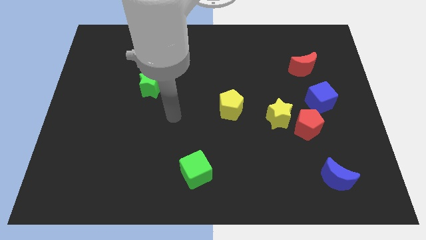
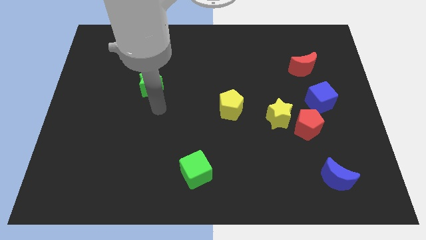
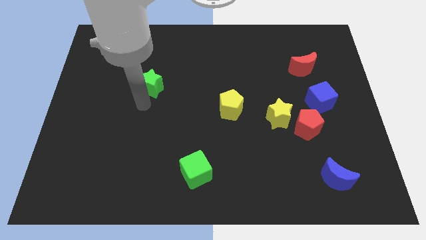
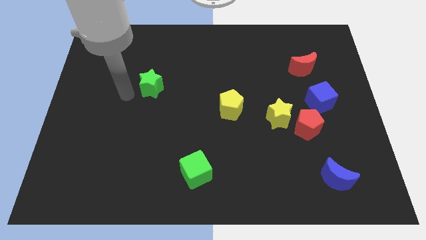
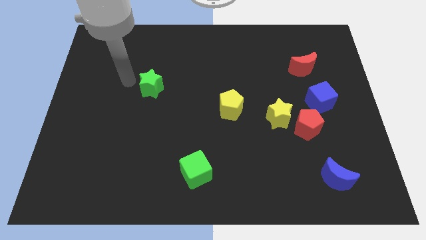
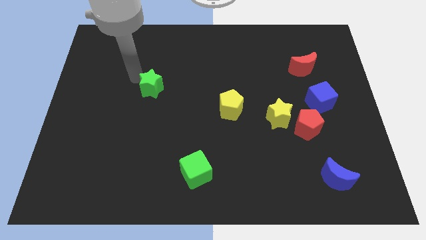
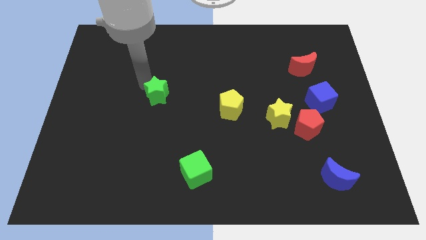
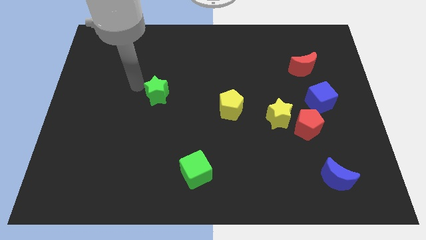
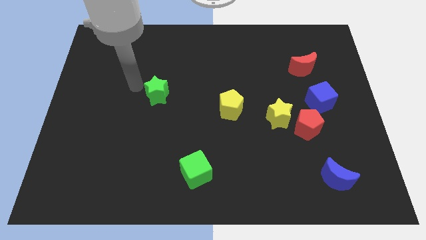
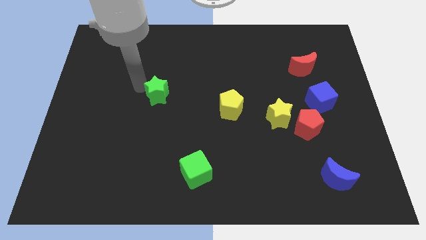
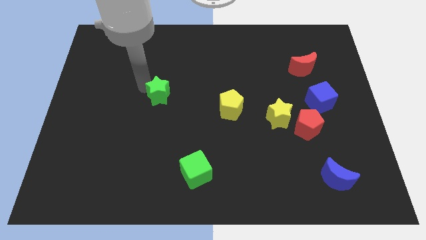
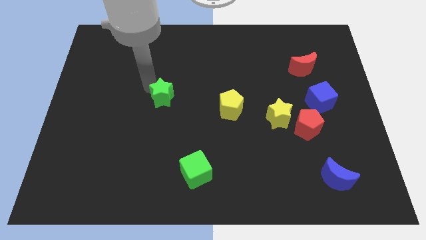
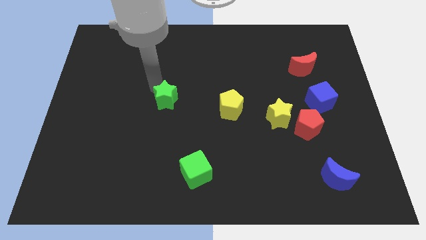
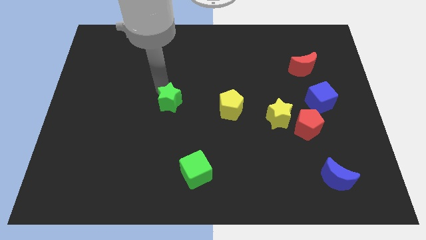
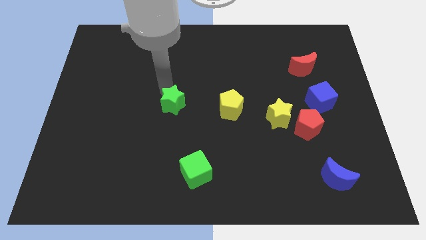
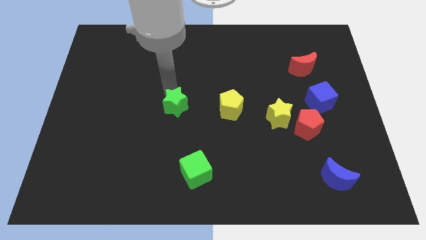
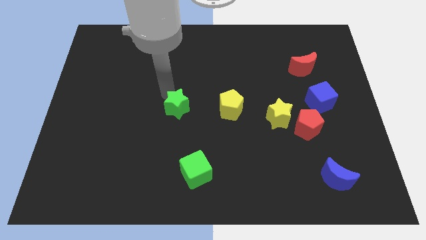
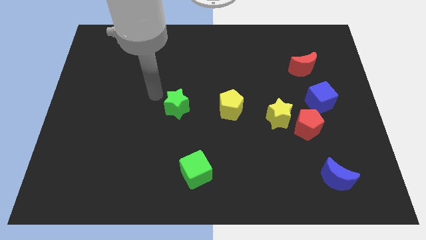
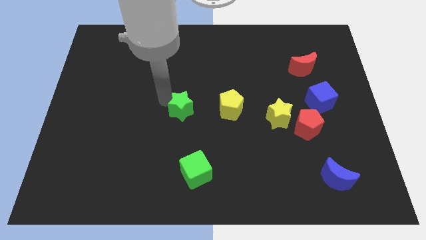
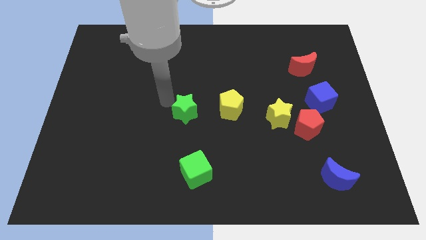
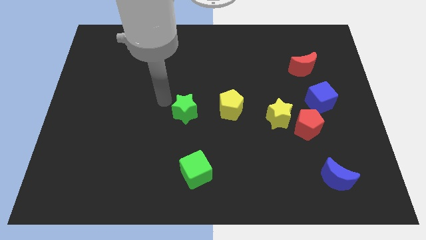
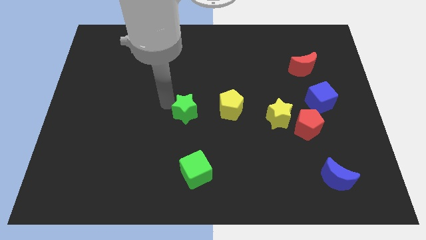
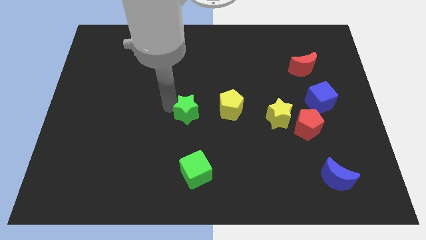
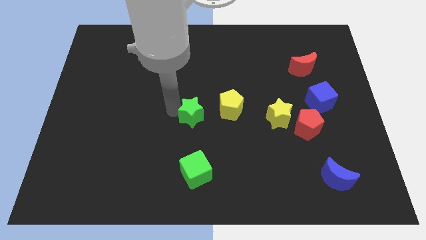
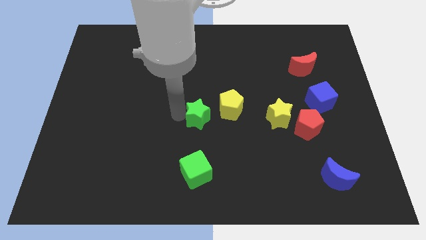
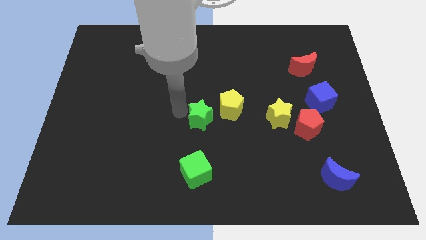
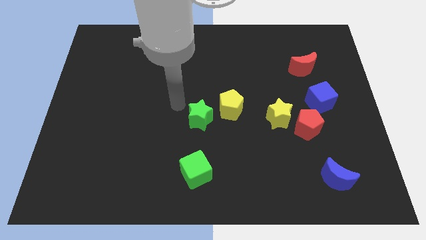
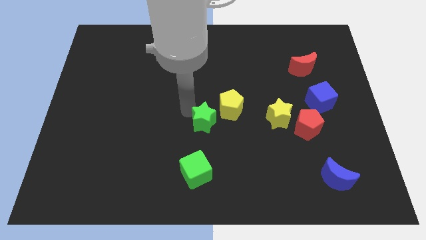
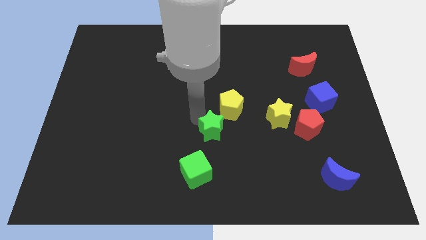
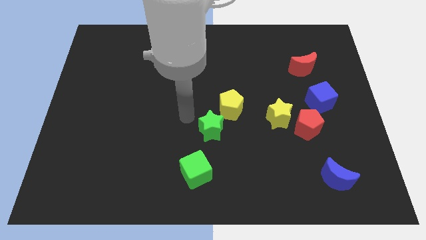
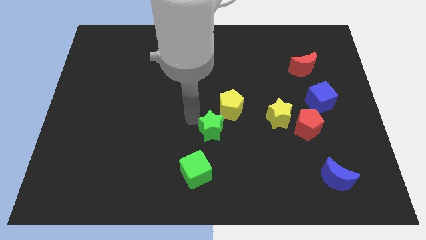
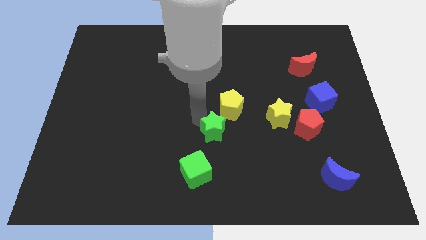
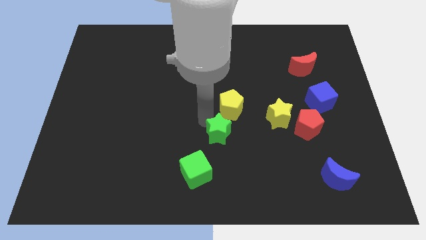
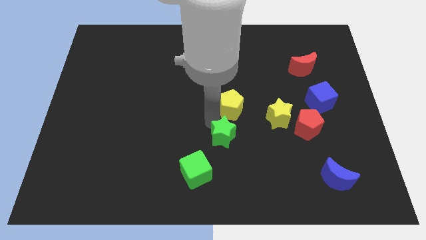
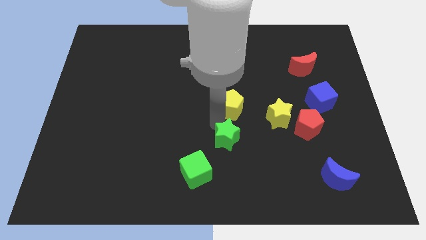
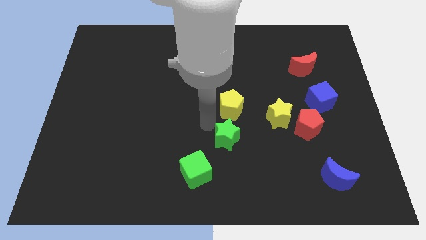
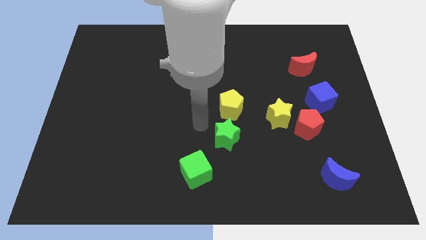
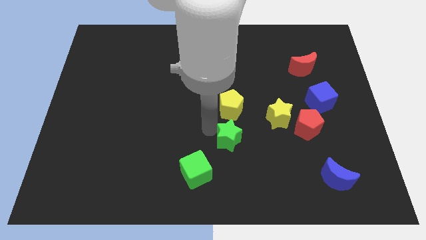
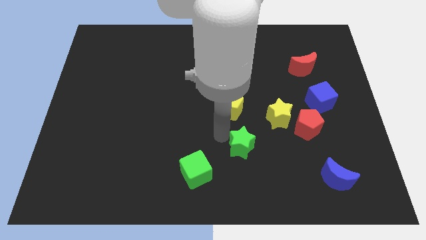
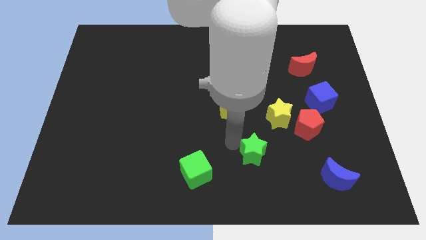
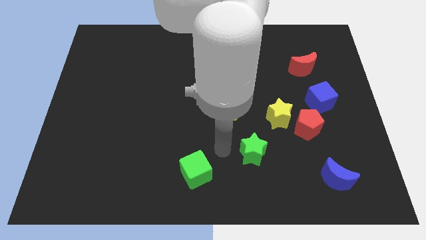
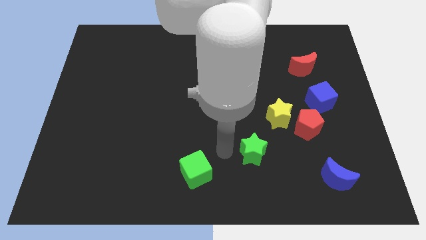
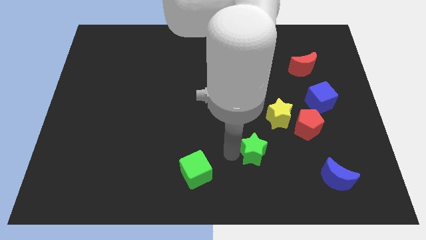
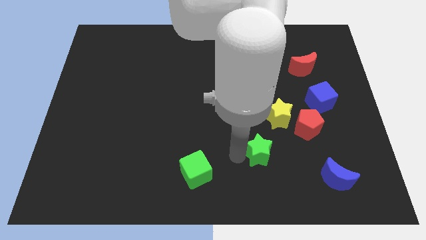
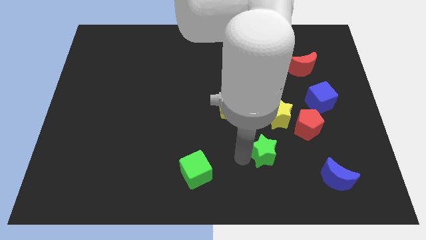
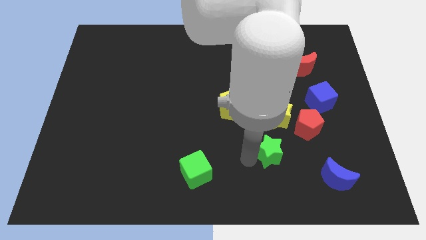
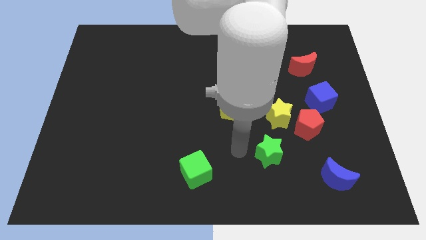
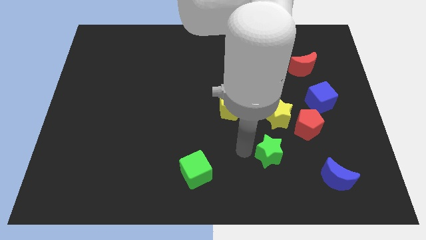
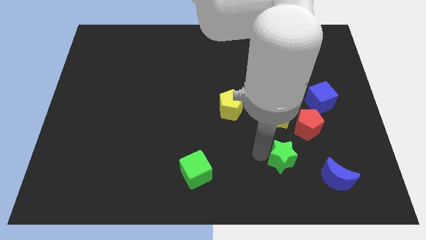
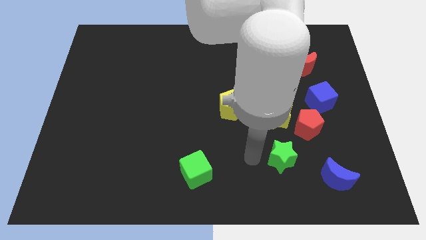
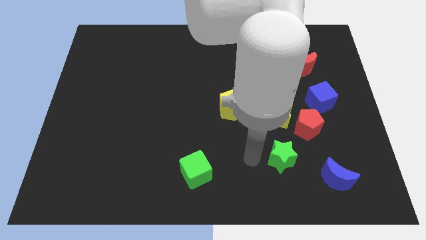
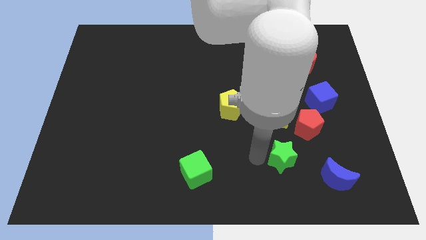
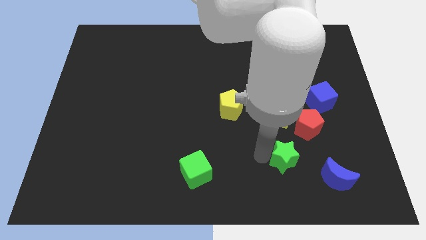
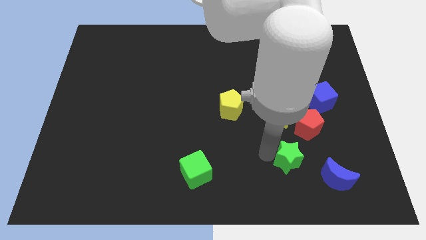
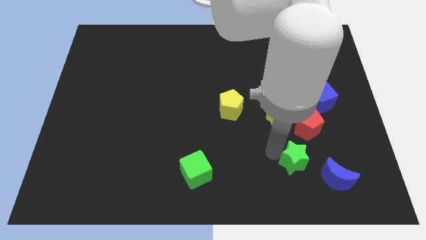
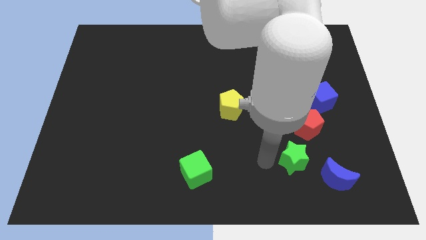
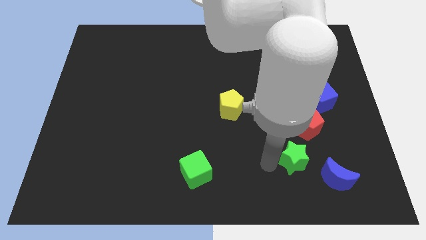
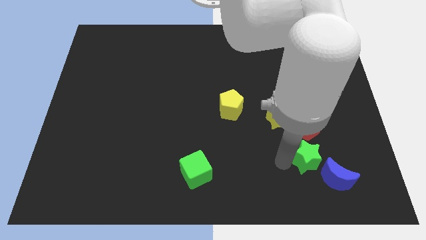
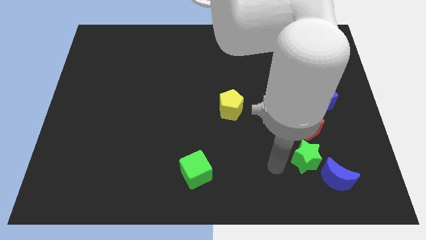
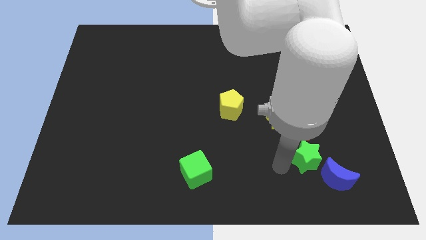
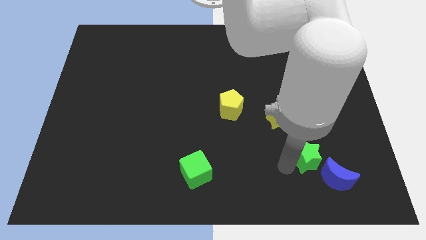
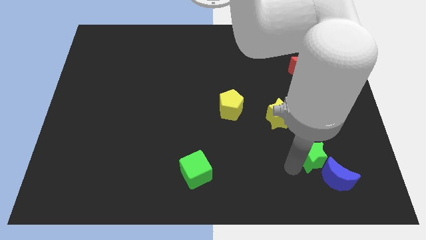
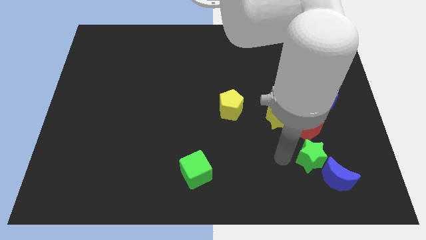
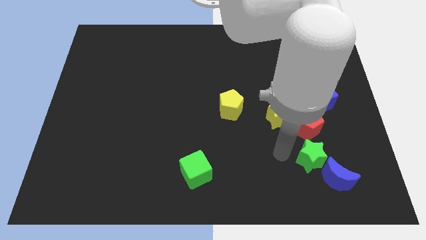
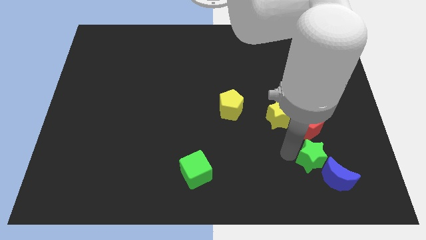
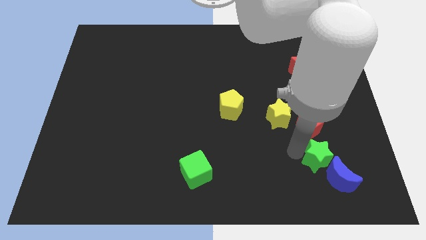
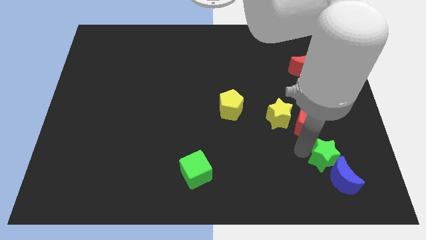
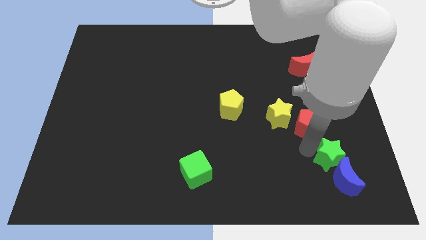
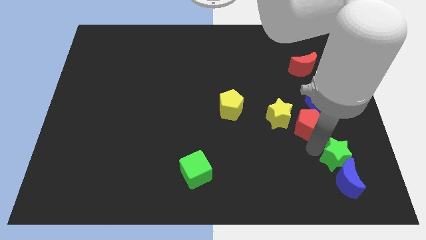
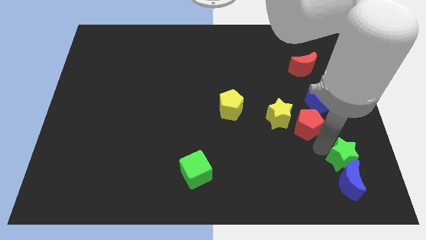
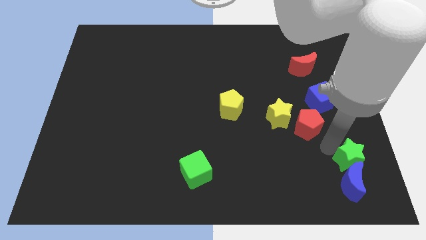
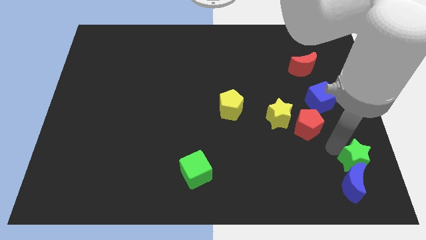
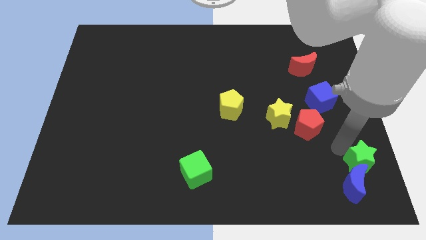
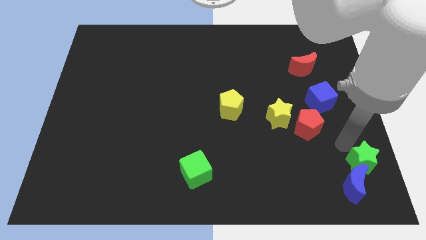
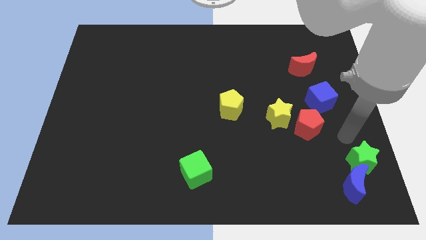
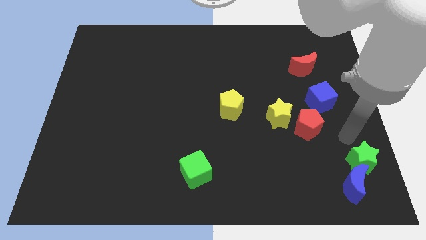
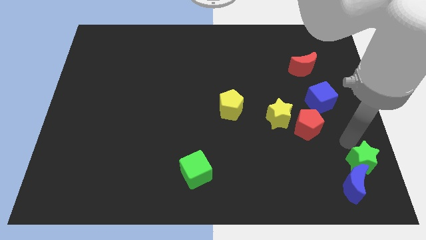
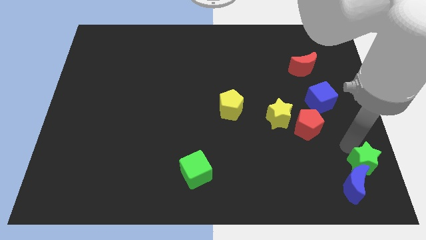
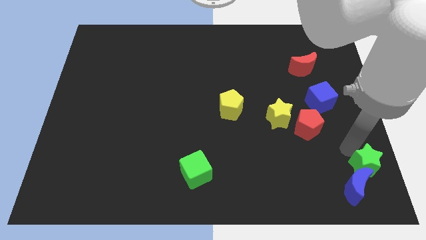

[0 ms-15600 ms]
move the green star to the bottom right
